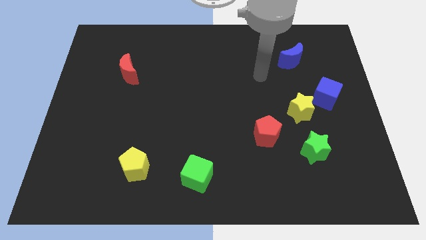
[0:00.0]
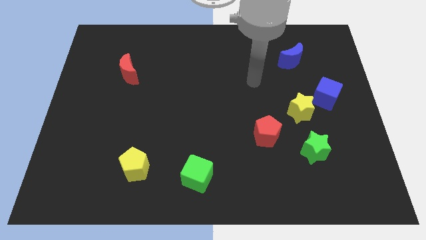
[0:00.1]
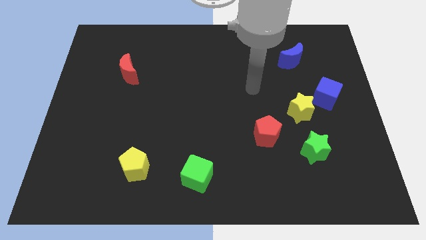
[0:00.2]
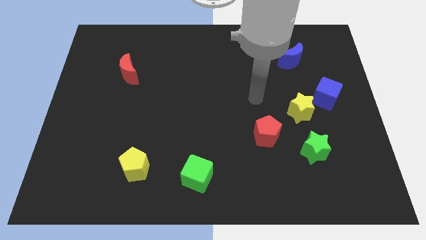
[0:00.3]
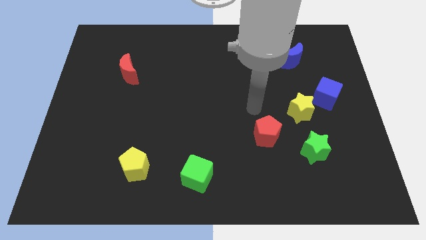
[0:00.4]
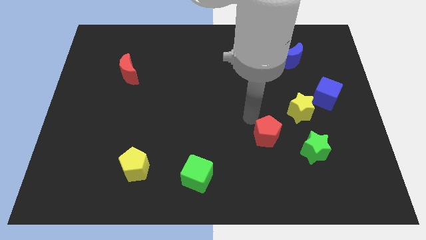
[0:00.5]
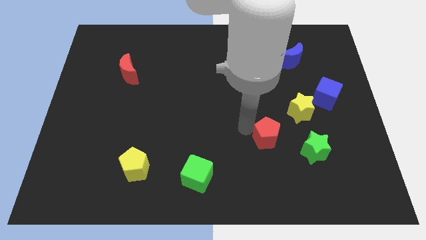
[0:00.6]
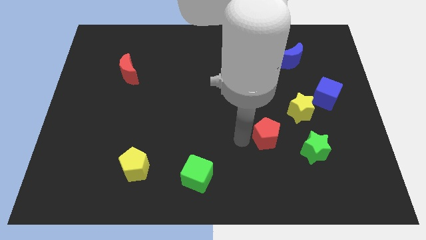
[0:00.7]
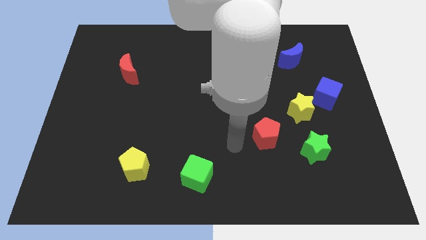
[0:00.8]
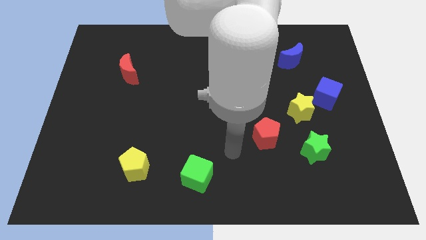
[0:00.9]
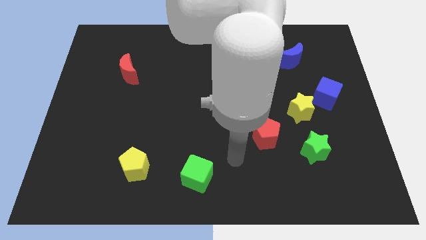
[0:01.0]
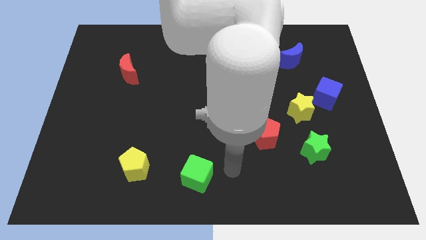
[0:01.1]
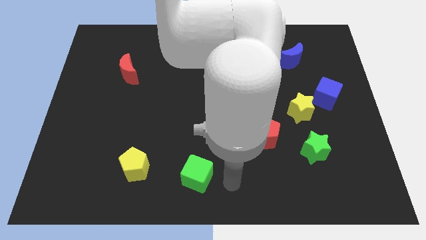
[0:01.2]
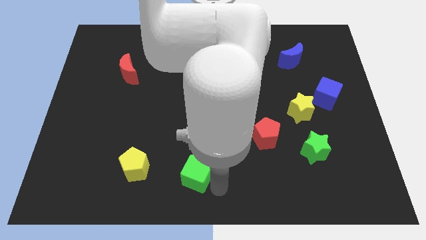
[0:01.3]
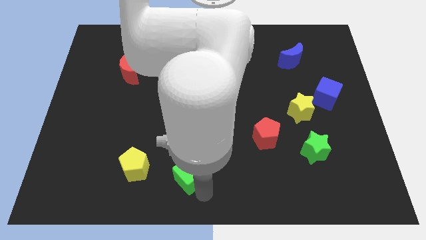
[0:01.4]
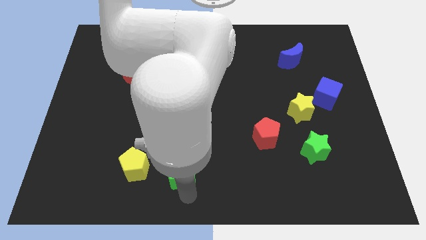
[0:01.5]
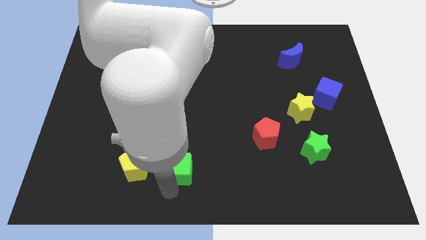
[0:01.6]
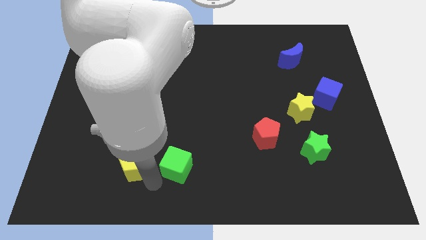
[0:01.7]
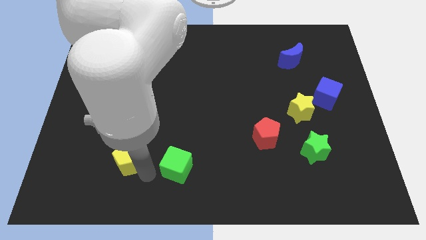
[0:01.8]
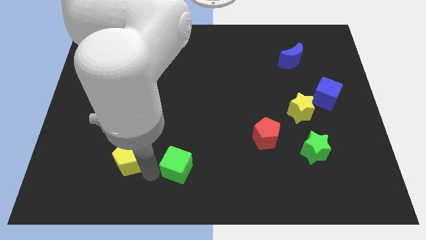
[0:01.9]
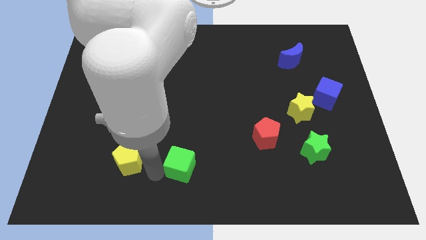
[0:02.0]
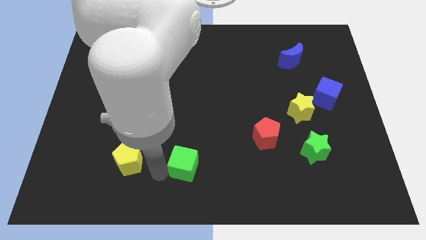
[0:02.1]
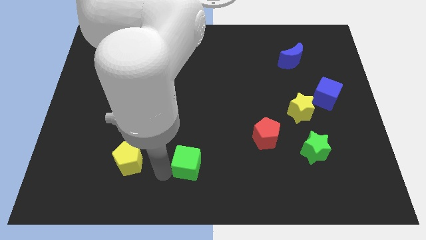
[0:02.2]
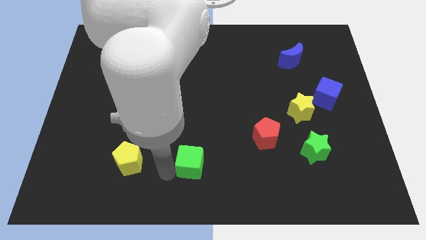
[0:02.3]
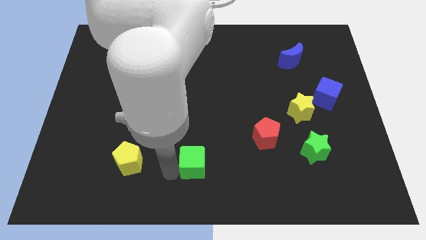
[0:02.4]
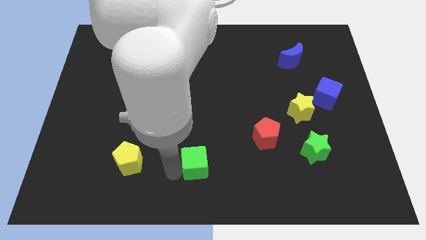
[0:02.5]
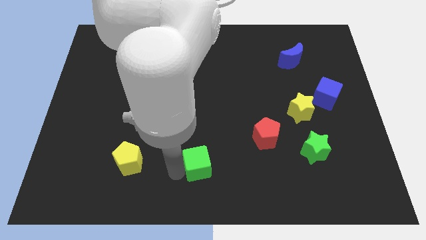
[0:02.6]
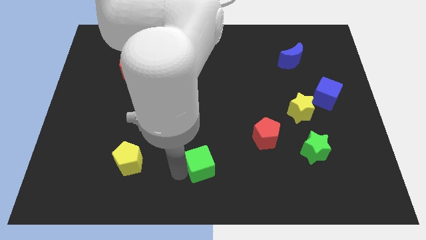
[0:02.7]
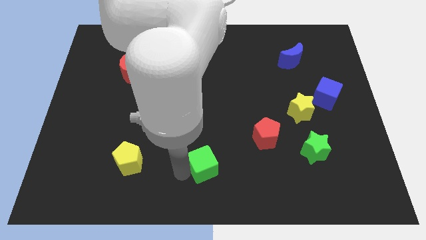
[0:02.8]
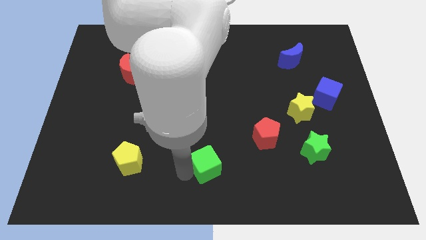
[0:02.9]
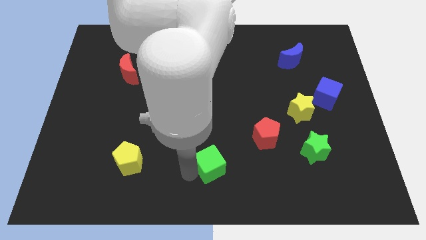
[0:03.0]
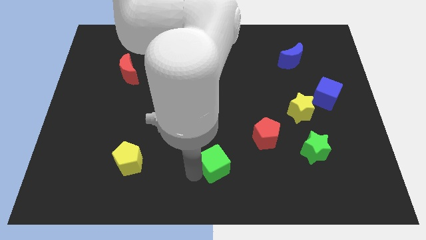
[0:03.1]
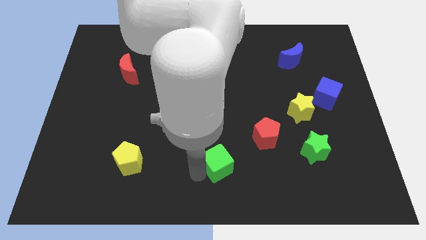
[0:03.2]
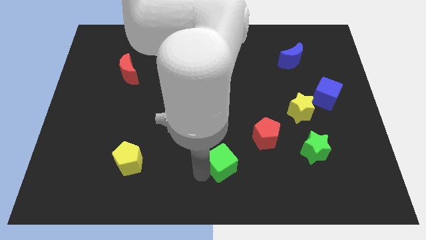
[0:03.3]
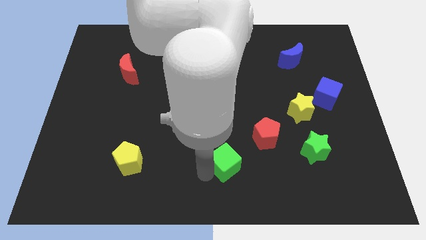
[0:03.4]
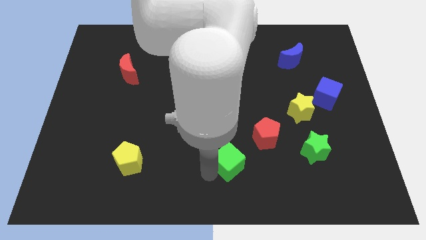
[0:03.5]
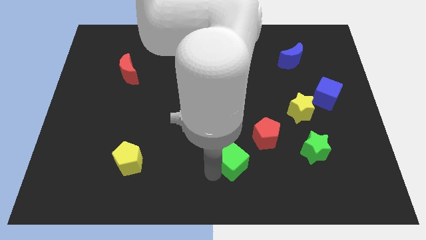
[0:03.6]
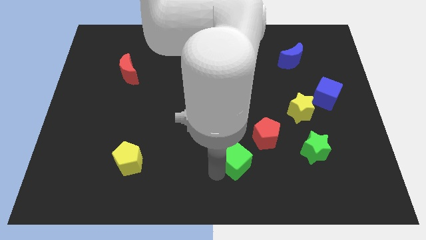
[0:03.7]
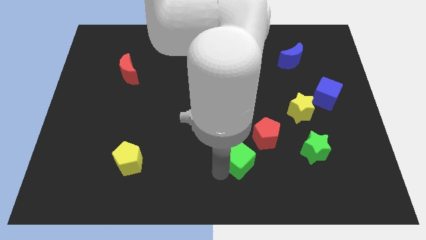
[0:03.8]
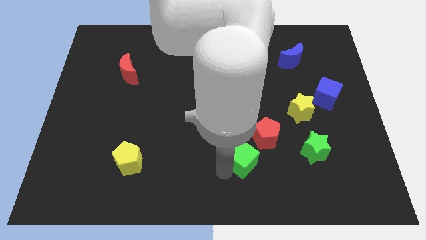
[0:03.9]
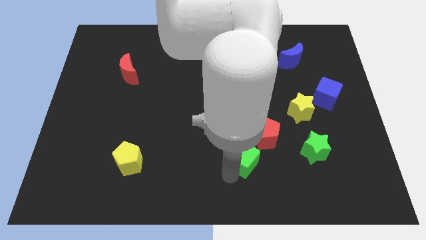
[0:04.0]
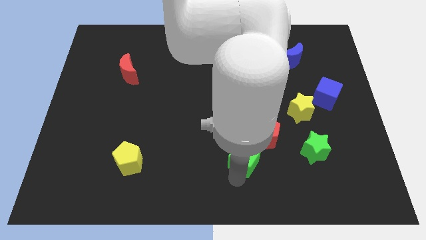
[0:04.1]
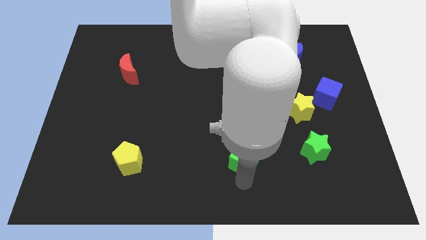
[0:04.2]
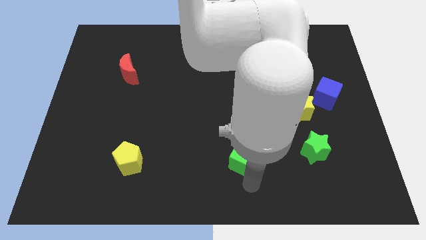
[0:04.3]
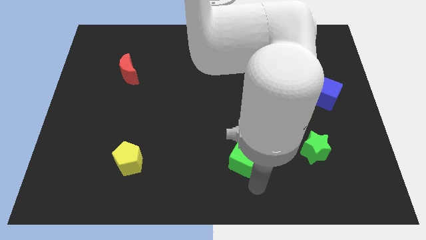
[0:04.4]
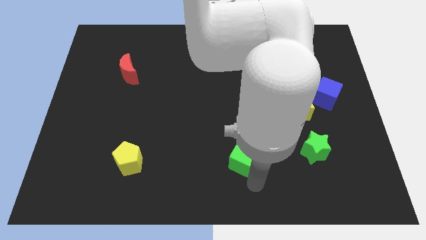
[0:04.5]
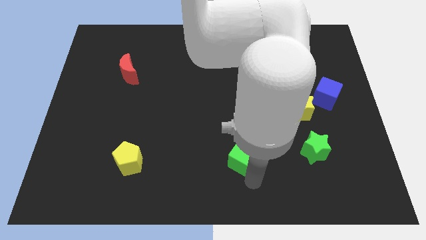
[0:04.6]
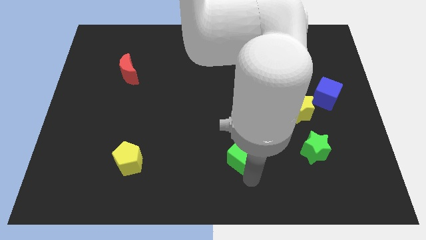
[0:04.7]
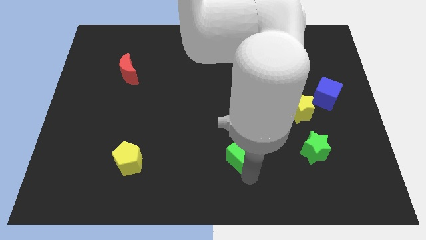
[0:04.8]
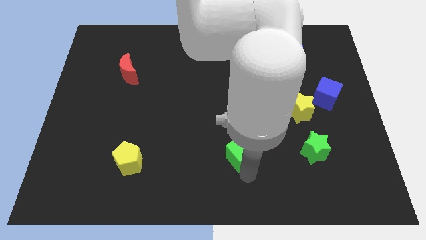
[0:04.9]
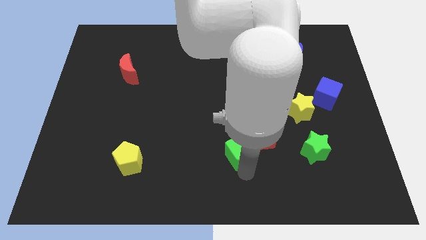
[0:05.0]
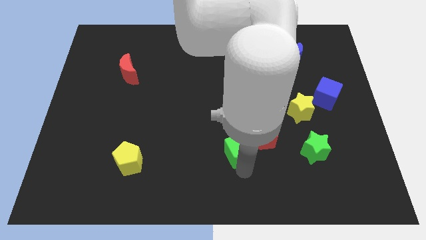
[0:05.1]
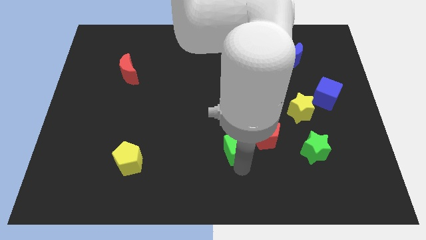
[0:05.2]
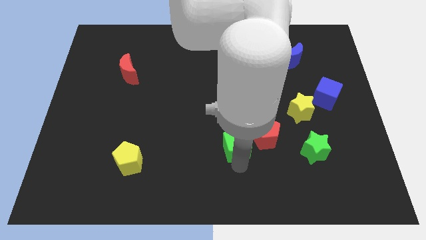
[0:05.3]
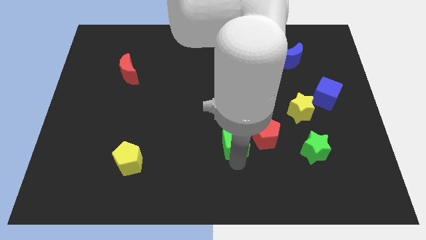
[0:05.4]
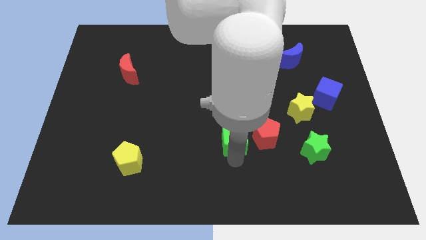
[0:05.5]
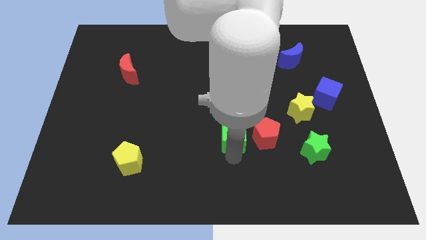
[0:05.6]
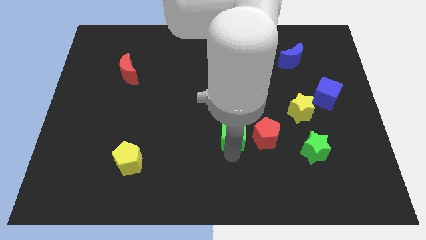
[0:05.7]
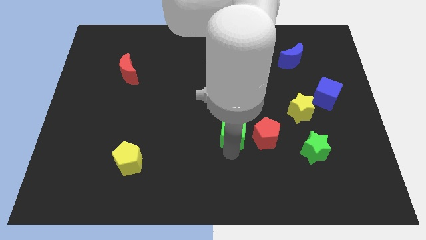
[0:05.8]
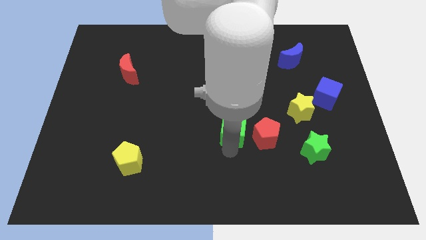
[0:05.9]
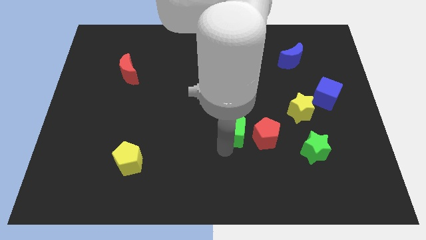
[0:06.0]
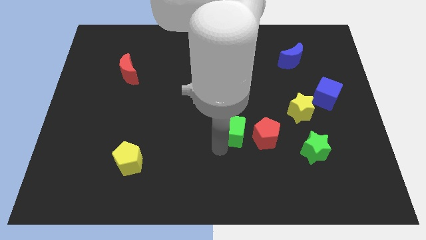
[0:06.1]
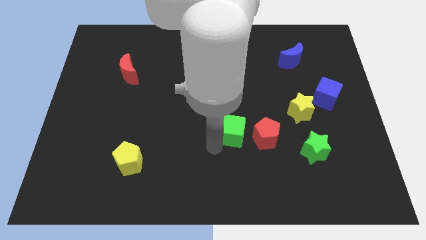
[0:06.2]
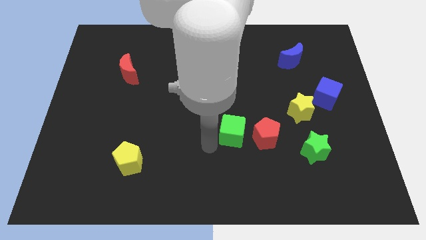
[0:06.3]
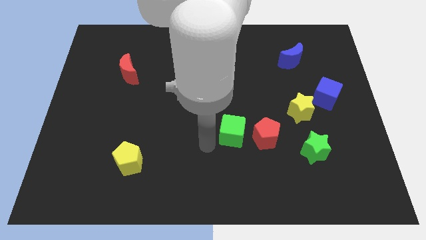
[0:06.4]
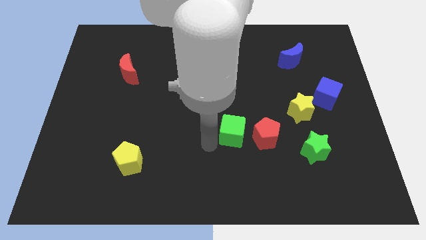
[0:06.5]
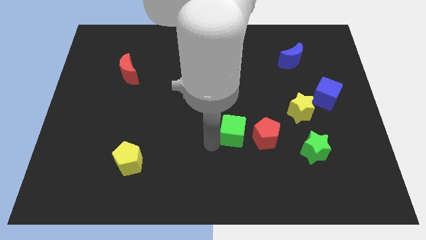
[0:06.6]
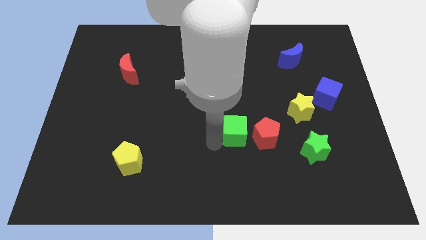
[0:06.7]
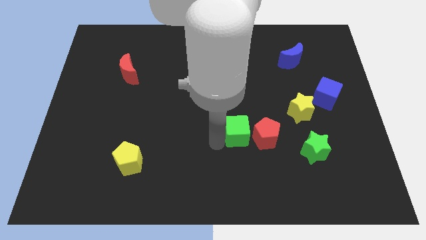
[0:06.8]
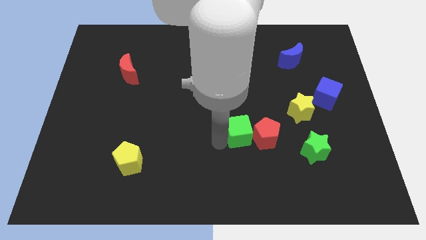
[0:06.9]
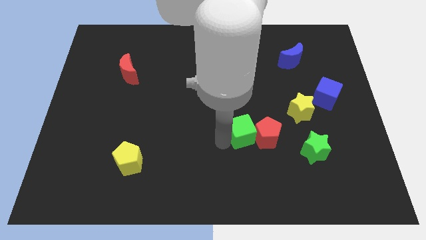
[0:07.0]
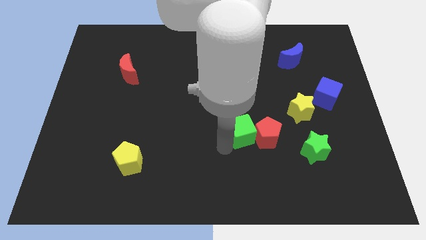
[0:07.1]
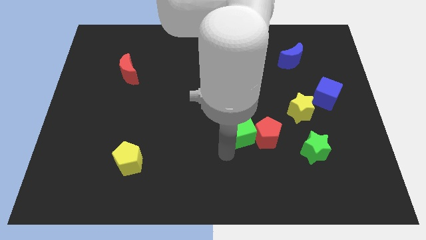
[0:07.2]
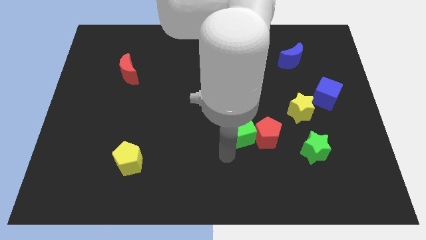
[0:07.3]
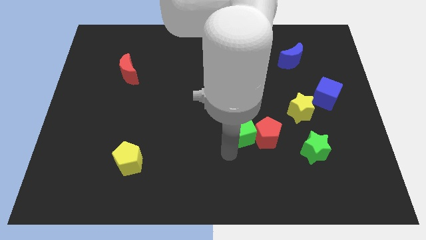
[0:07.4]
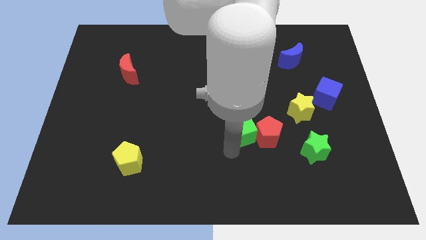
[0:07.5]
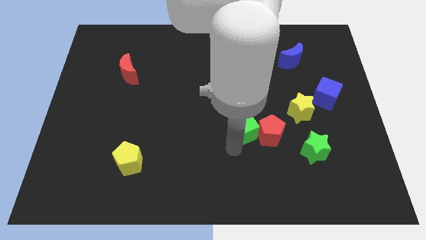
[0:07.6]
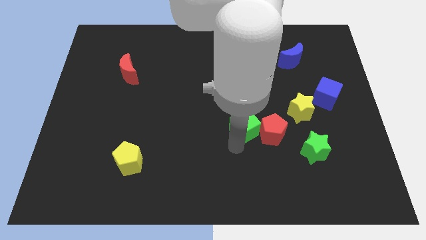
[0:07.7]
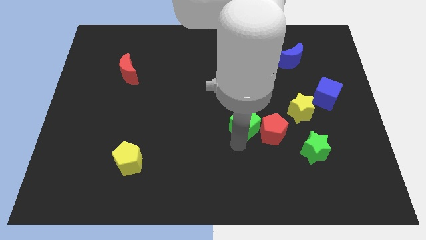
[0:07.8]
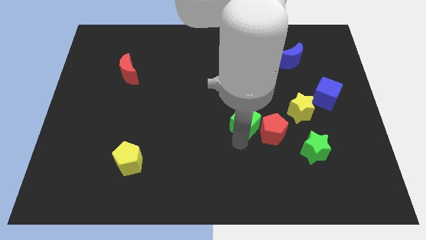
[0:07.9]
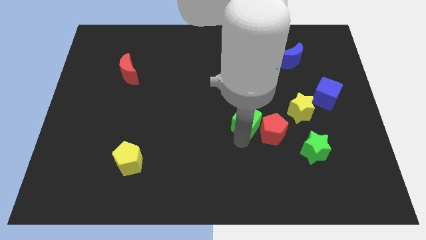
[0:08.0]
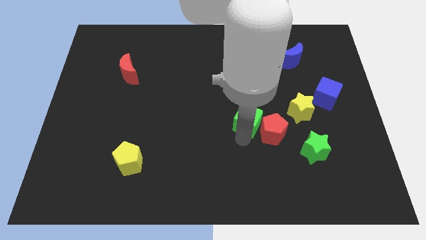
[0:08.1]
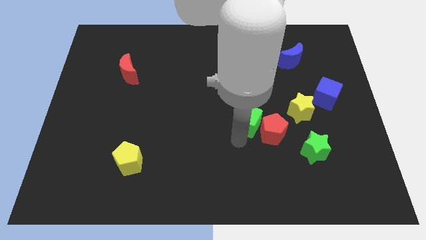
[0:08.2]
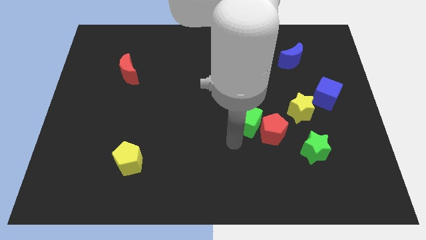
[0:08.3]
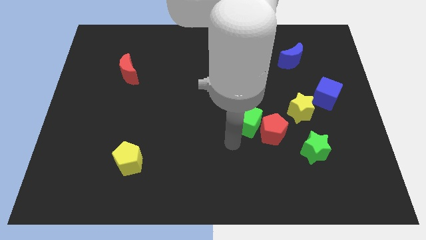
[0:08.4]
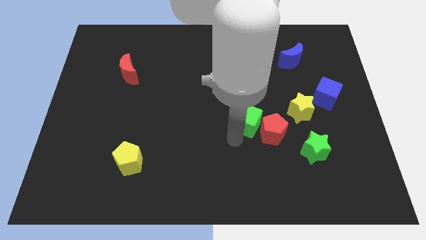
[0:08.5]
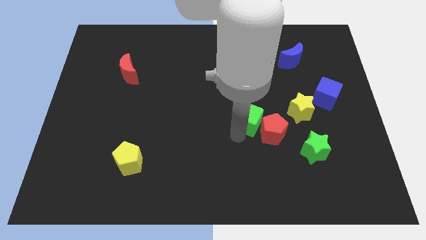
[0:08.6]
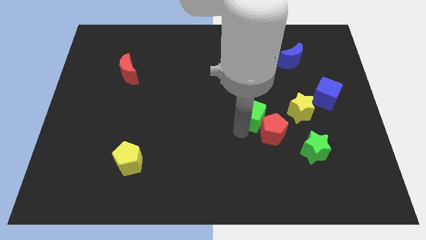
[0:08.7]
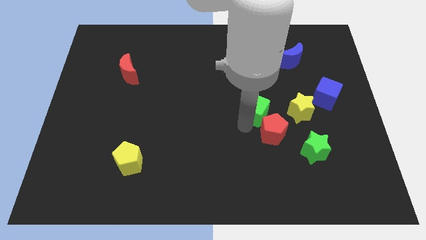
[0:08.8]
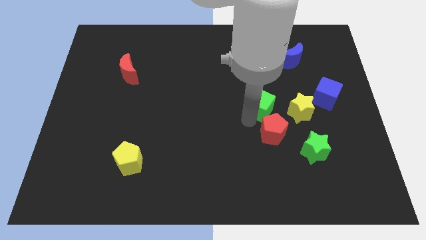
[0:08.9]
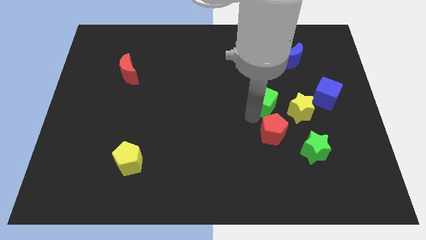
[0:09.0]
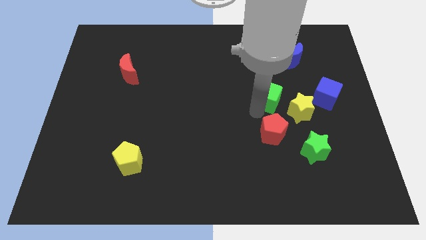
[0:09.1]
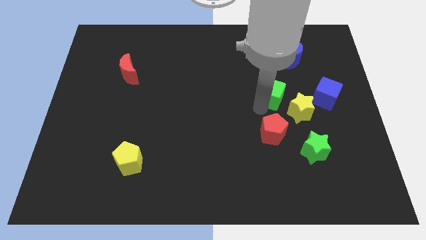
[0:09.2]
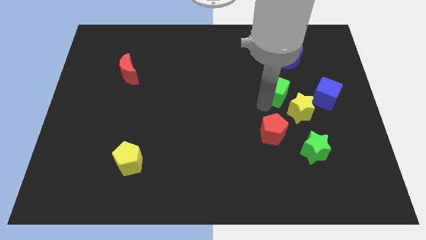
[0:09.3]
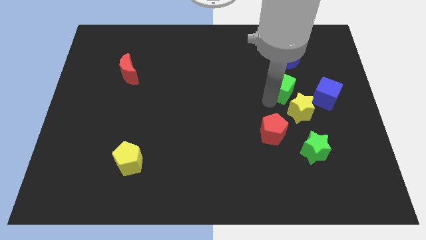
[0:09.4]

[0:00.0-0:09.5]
put the green cube to the bottom left of the blue moon
